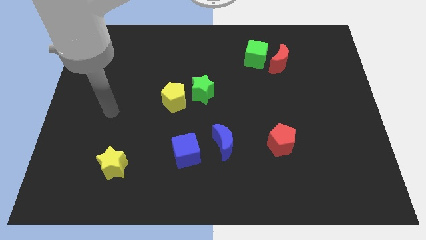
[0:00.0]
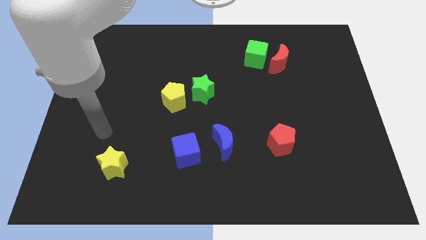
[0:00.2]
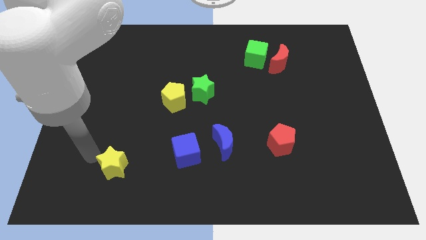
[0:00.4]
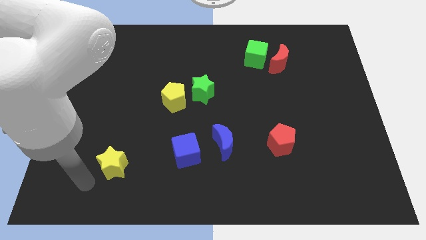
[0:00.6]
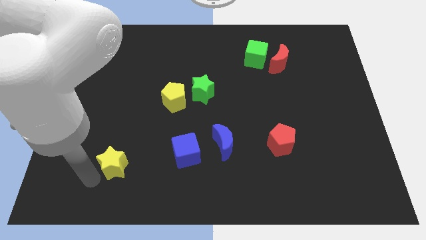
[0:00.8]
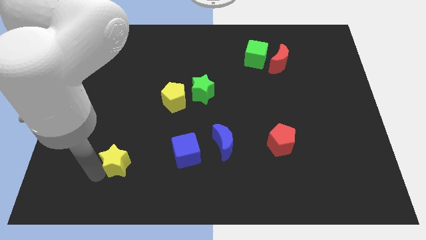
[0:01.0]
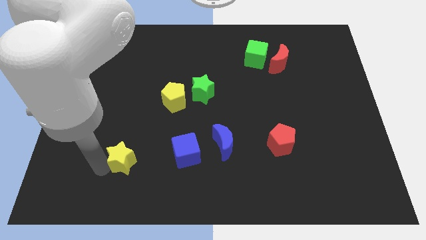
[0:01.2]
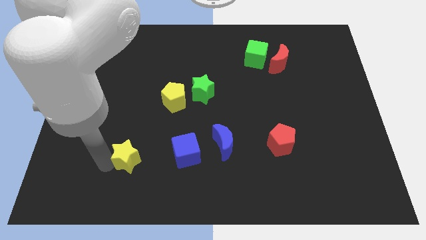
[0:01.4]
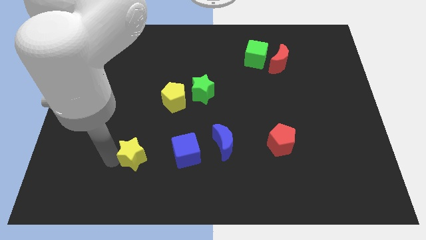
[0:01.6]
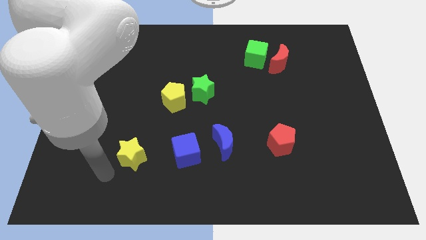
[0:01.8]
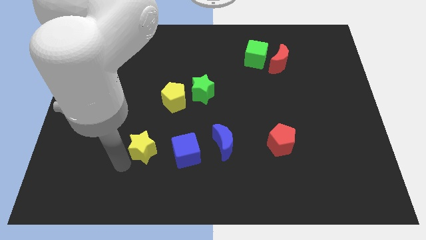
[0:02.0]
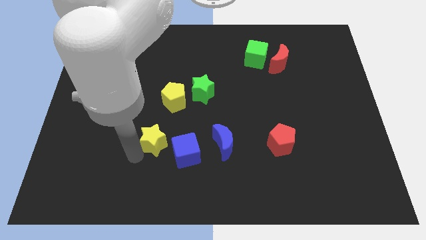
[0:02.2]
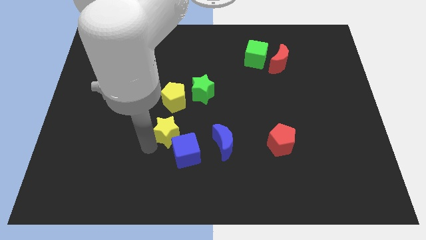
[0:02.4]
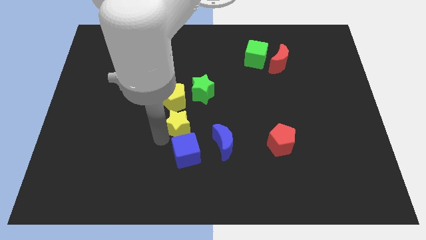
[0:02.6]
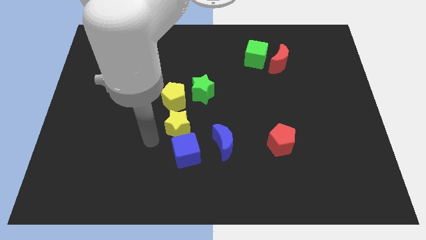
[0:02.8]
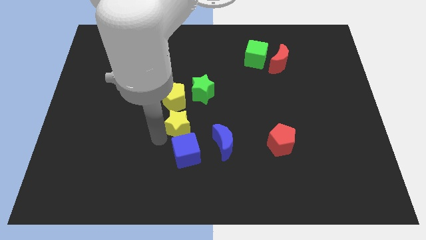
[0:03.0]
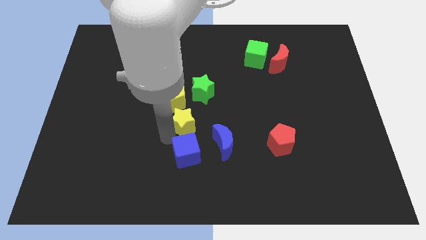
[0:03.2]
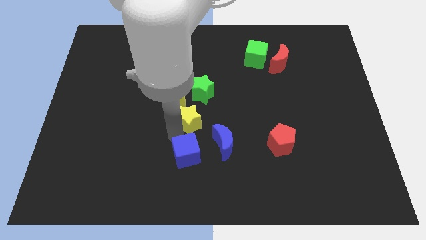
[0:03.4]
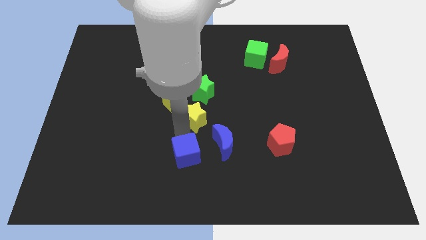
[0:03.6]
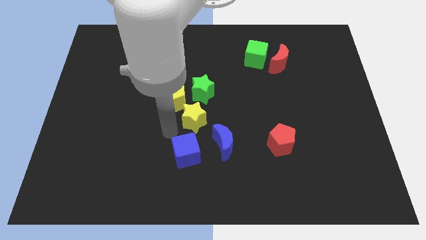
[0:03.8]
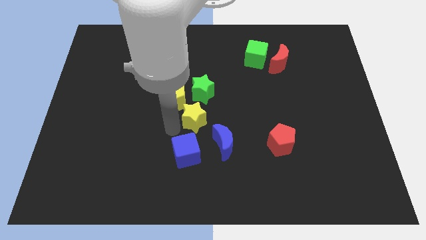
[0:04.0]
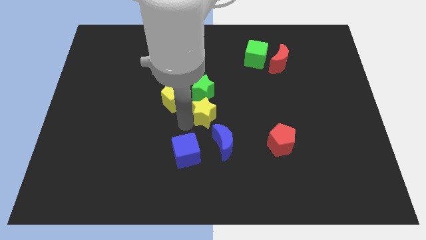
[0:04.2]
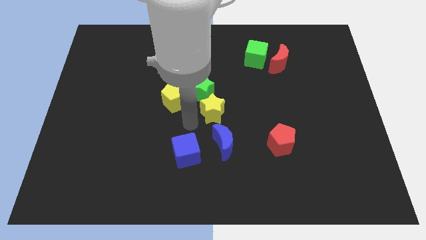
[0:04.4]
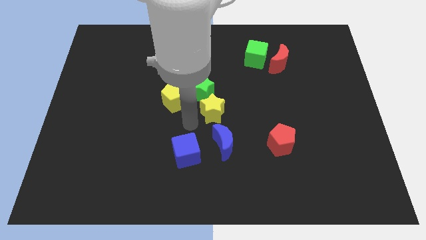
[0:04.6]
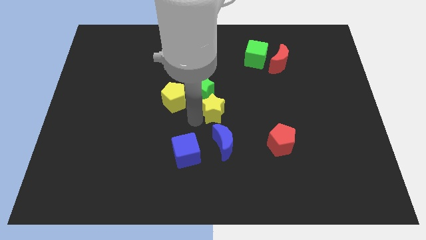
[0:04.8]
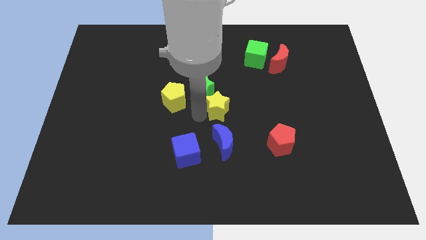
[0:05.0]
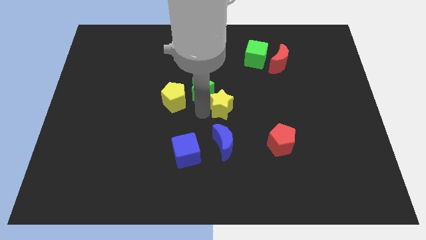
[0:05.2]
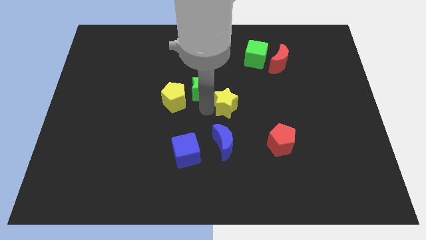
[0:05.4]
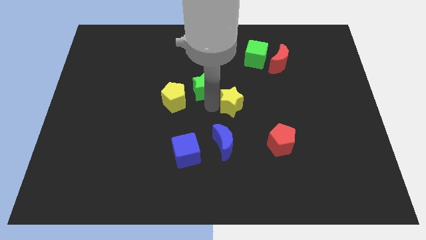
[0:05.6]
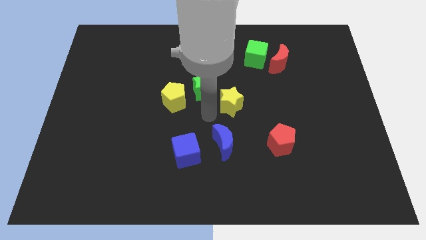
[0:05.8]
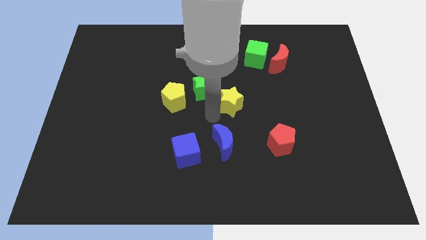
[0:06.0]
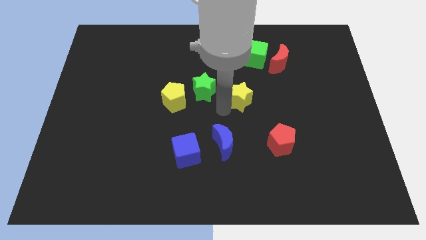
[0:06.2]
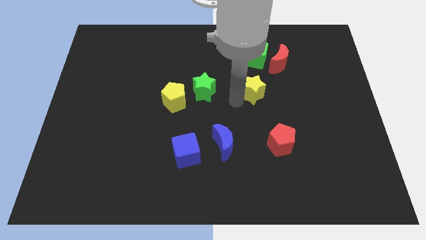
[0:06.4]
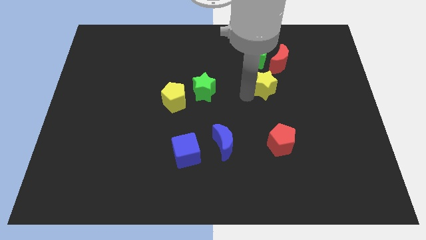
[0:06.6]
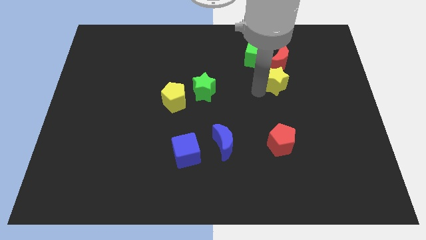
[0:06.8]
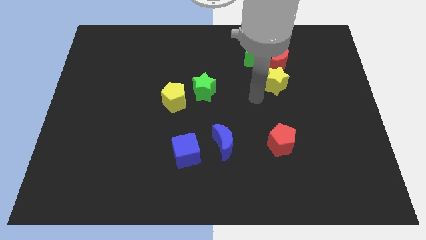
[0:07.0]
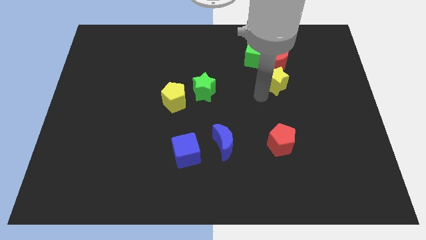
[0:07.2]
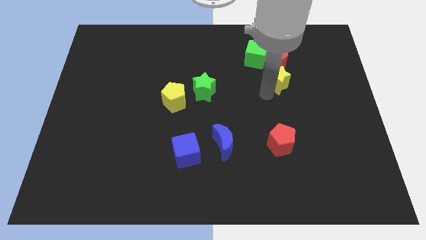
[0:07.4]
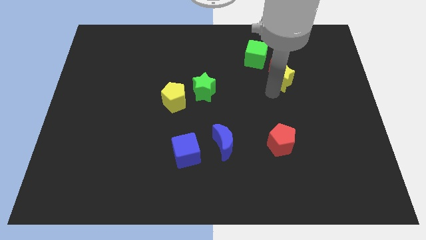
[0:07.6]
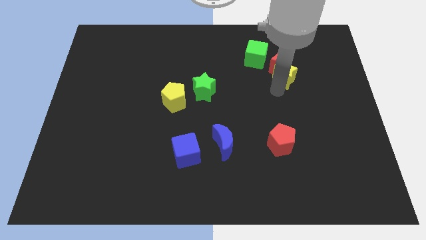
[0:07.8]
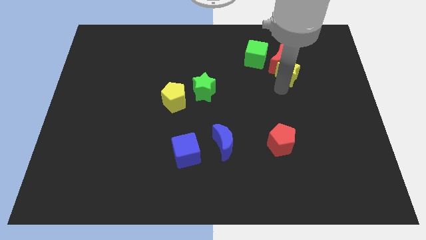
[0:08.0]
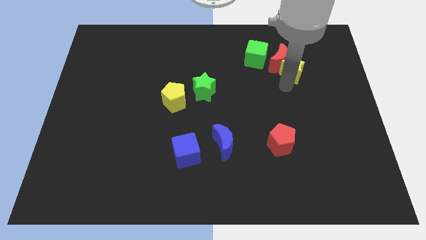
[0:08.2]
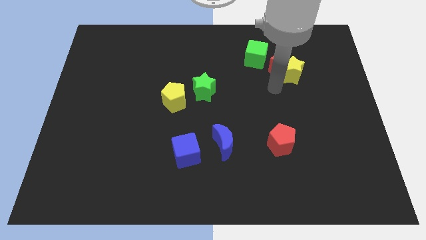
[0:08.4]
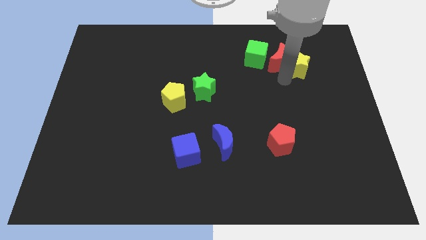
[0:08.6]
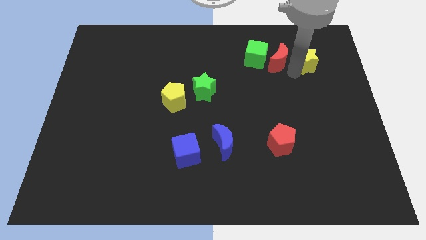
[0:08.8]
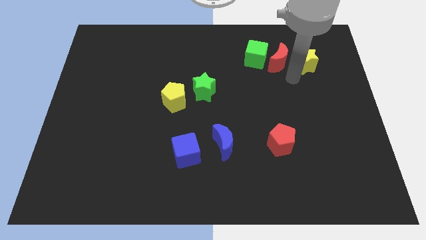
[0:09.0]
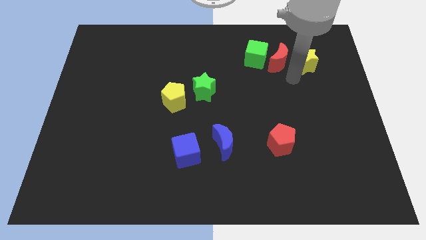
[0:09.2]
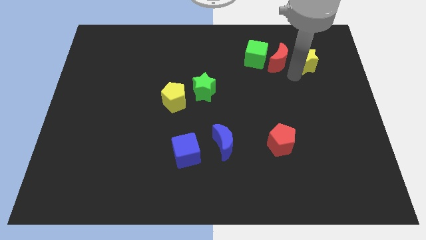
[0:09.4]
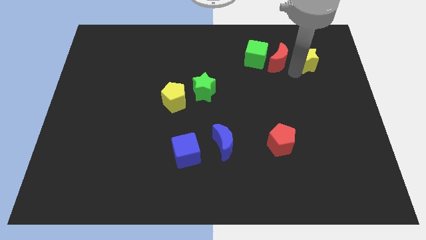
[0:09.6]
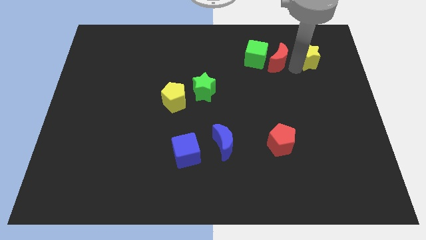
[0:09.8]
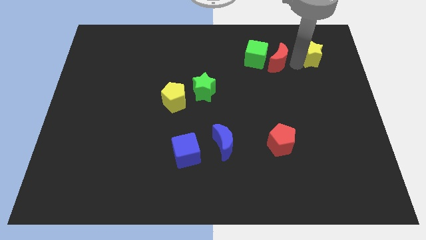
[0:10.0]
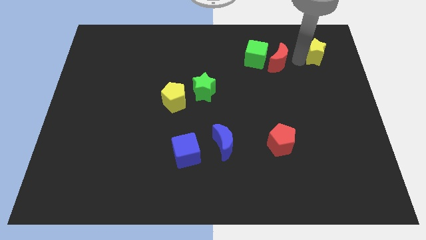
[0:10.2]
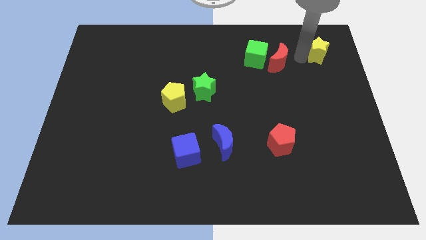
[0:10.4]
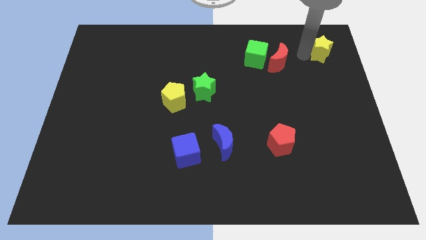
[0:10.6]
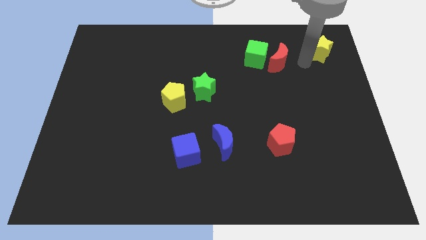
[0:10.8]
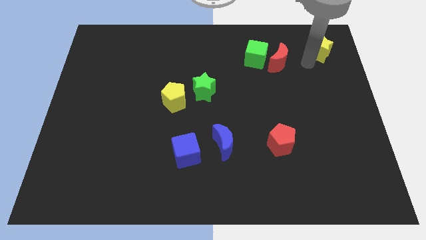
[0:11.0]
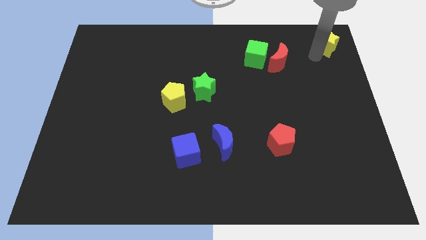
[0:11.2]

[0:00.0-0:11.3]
put the yellow star to the top right of the board

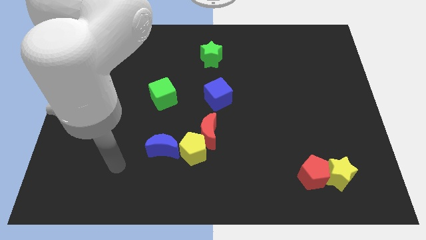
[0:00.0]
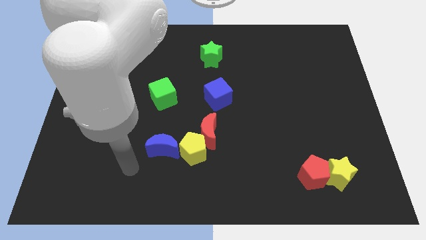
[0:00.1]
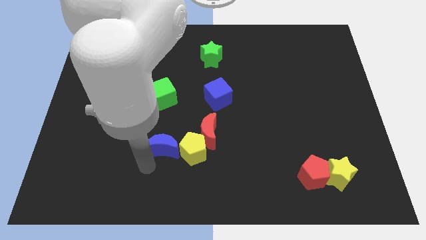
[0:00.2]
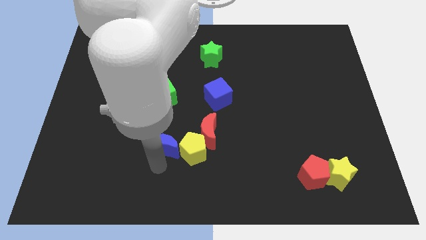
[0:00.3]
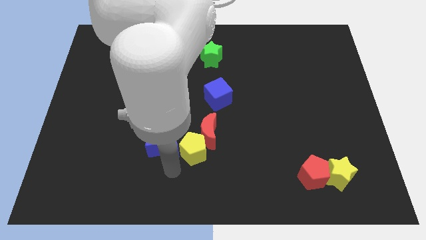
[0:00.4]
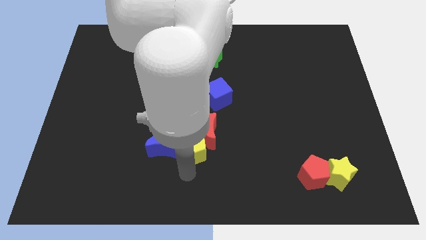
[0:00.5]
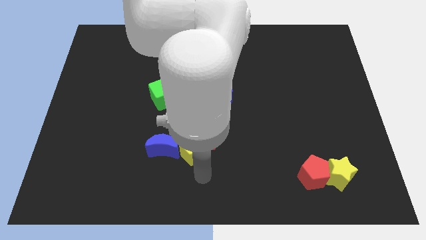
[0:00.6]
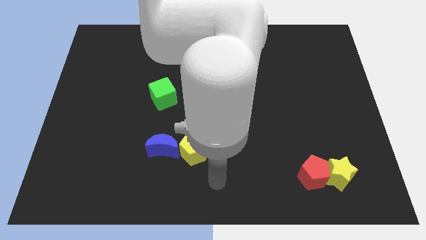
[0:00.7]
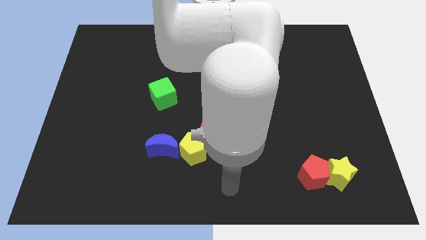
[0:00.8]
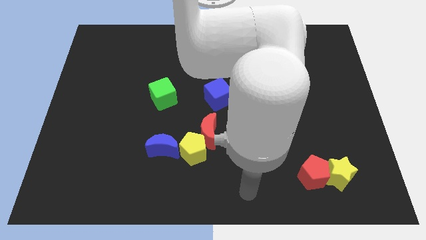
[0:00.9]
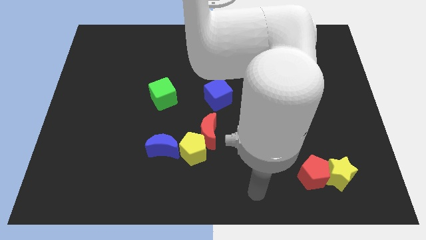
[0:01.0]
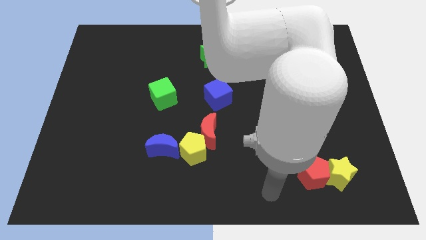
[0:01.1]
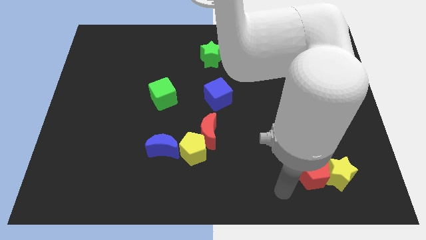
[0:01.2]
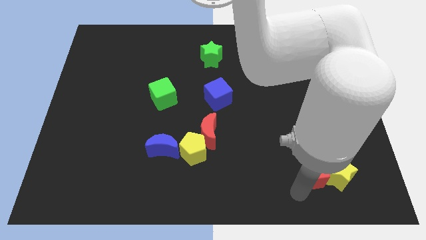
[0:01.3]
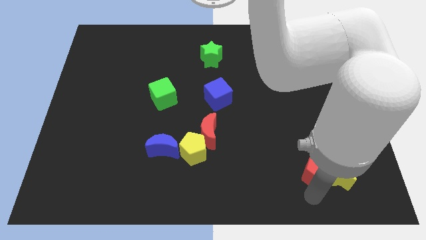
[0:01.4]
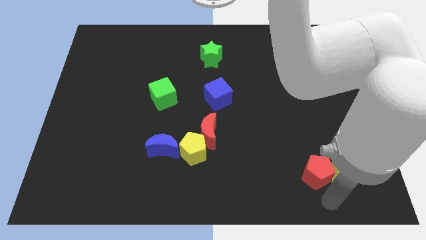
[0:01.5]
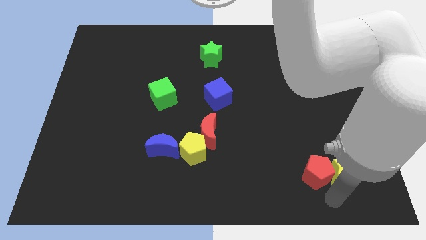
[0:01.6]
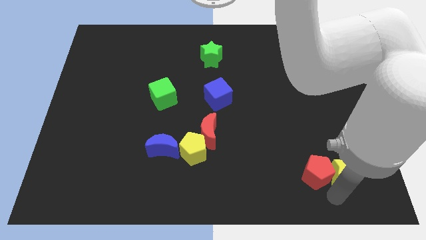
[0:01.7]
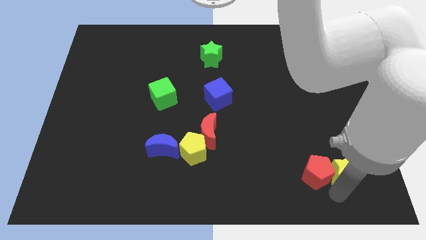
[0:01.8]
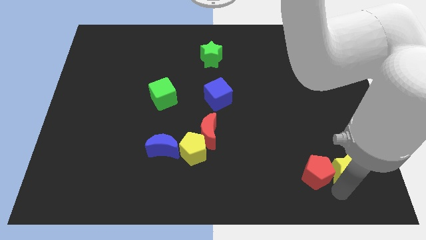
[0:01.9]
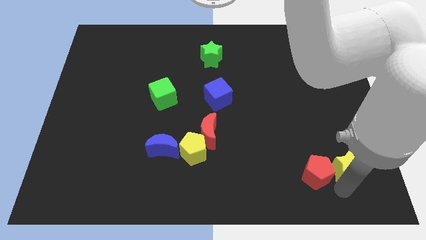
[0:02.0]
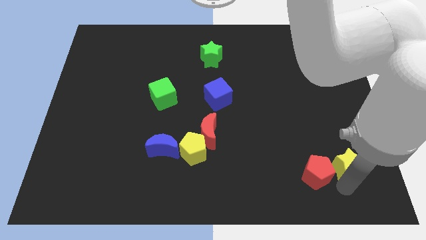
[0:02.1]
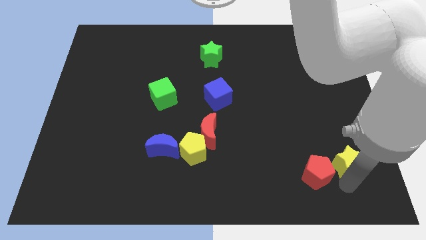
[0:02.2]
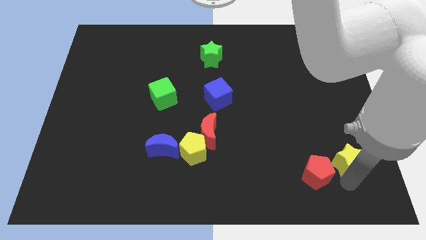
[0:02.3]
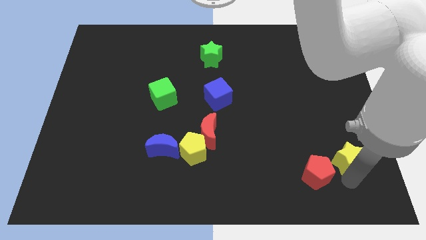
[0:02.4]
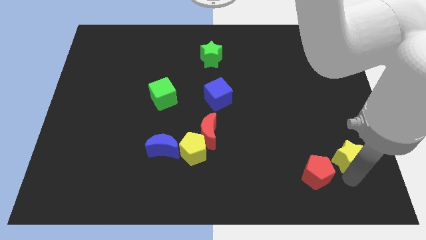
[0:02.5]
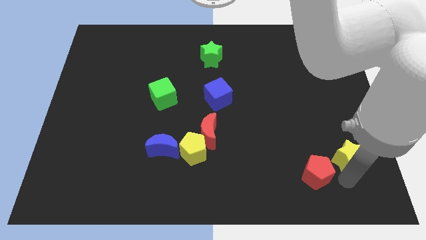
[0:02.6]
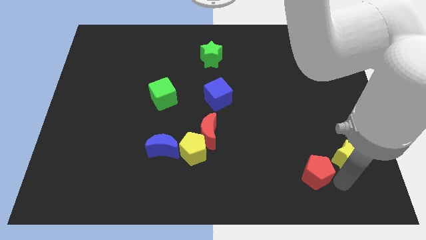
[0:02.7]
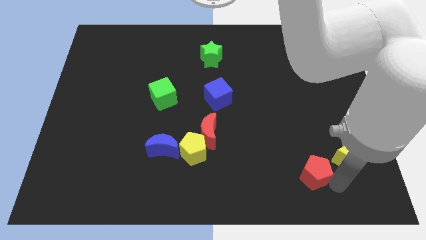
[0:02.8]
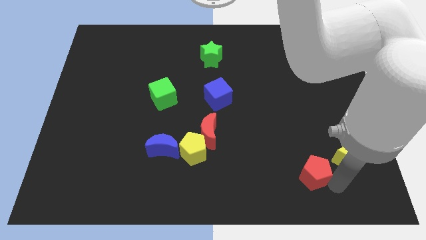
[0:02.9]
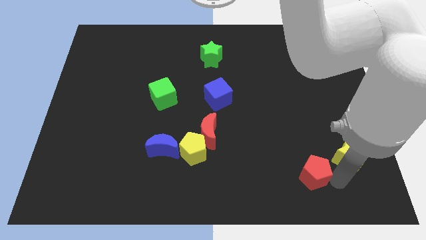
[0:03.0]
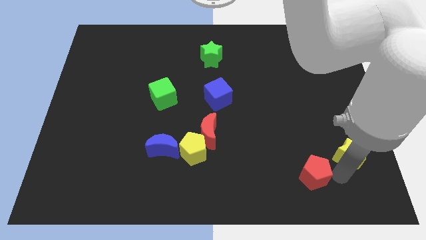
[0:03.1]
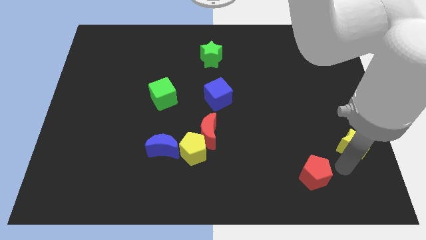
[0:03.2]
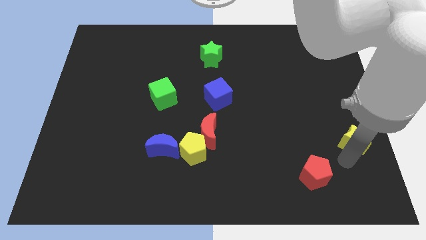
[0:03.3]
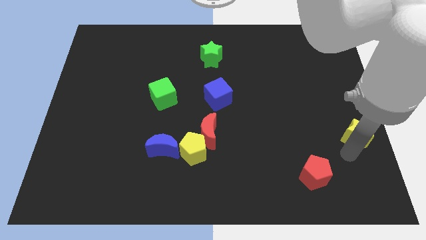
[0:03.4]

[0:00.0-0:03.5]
move the yellow star to the right side
